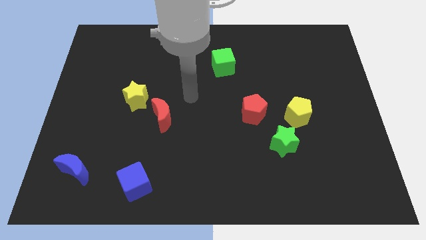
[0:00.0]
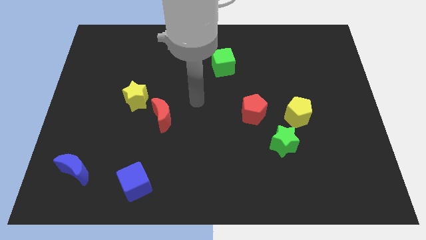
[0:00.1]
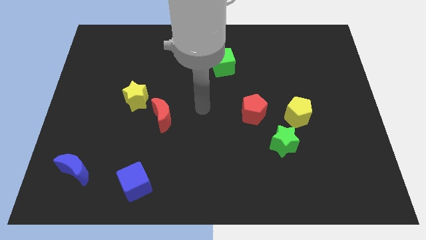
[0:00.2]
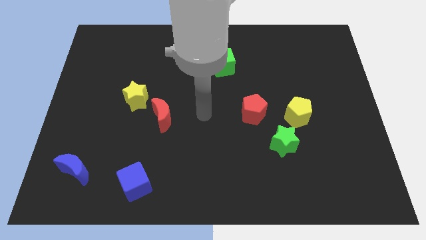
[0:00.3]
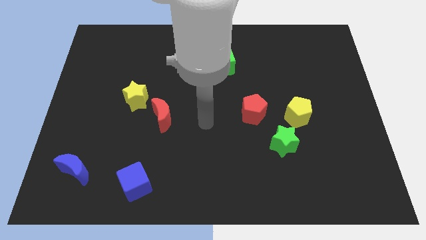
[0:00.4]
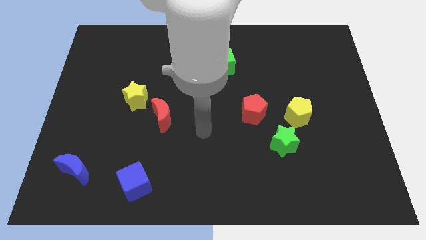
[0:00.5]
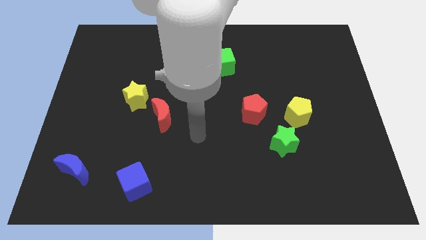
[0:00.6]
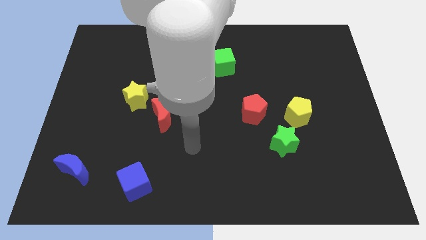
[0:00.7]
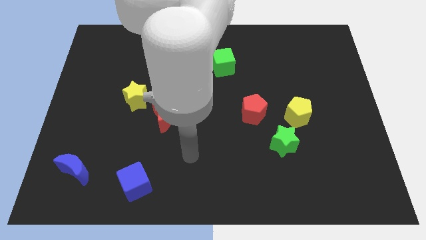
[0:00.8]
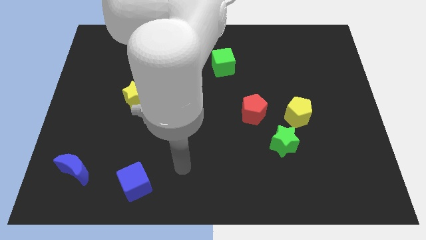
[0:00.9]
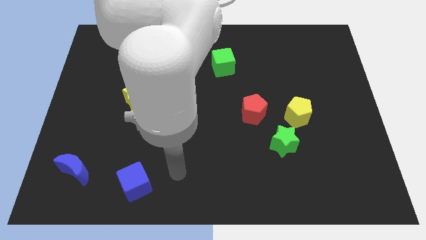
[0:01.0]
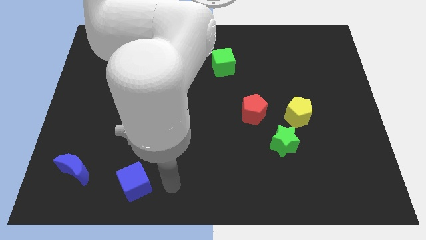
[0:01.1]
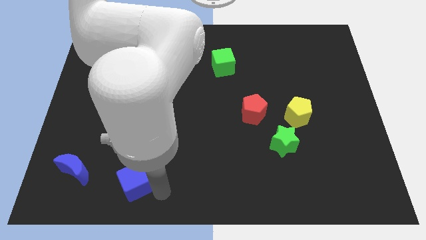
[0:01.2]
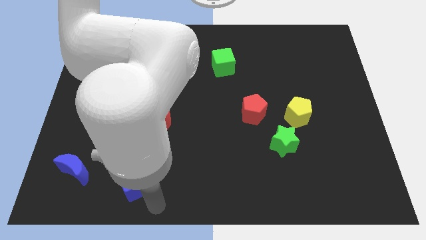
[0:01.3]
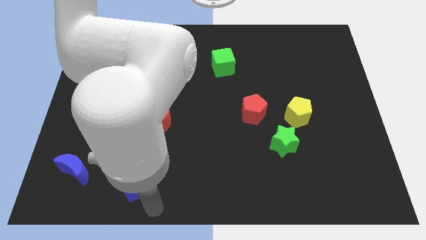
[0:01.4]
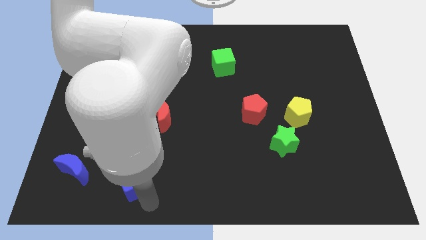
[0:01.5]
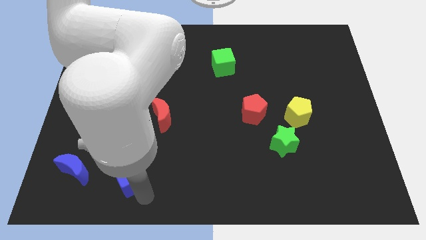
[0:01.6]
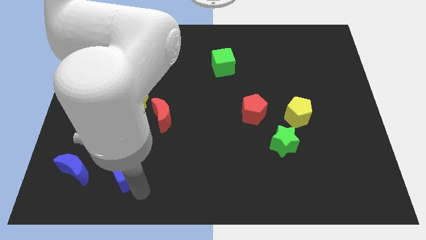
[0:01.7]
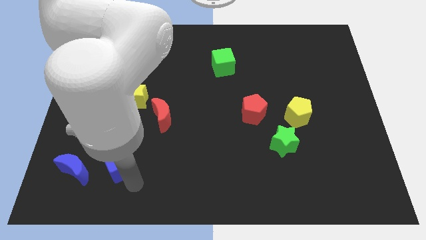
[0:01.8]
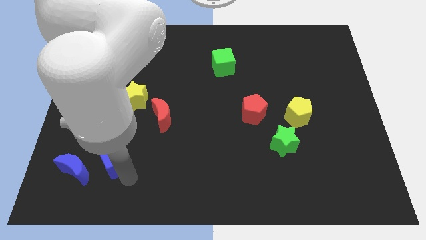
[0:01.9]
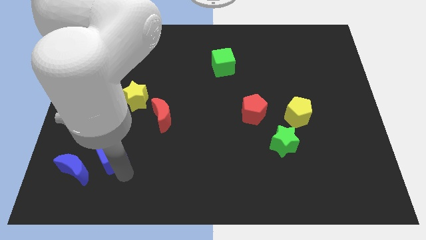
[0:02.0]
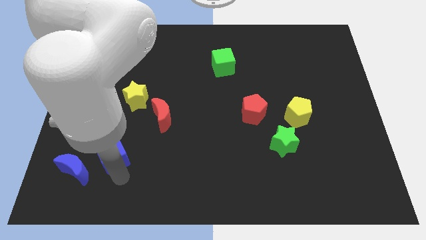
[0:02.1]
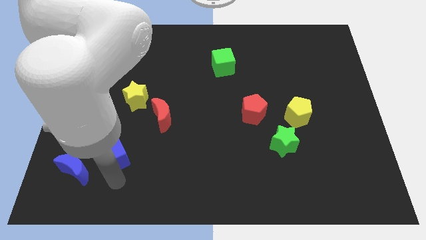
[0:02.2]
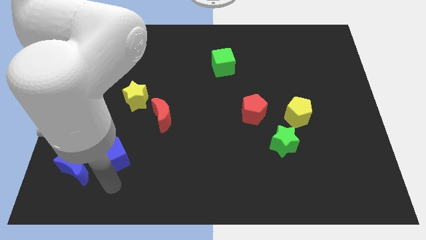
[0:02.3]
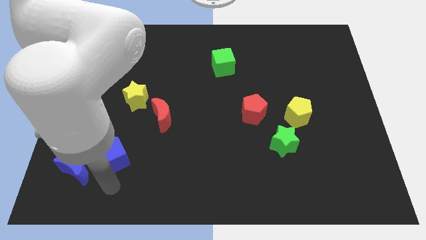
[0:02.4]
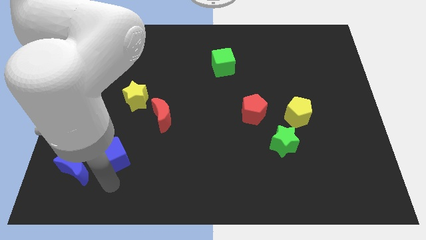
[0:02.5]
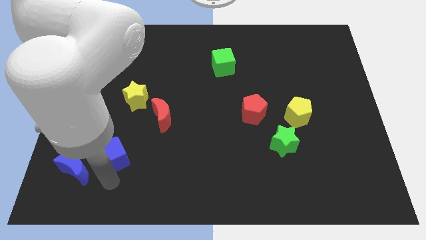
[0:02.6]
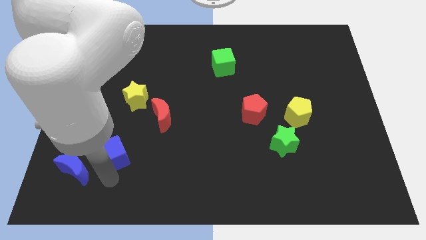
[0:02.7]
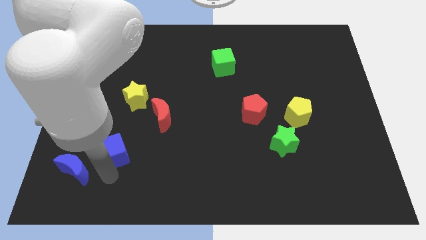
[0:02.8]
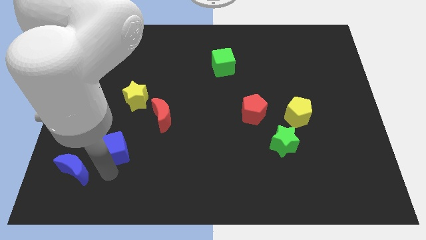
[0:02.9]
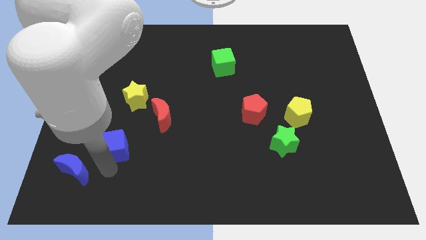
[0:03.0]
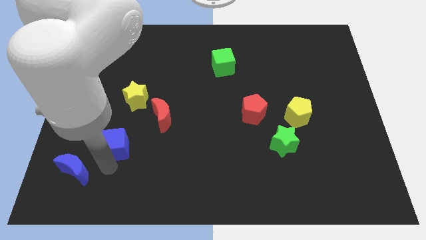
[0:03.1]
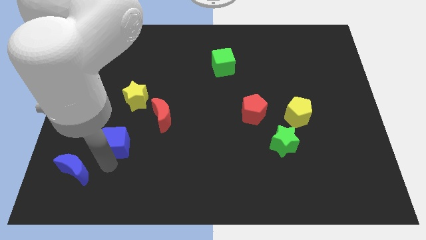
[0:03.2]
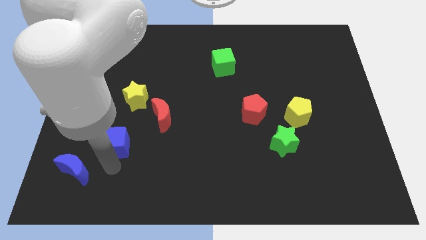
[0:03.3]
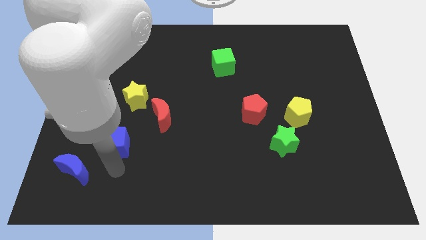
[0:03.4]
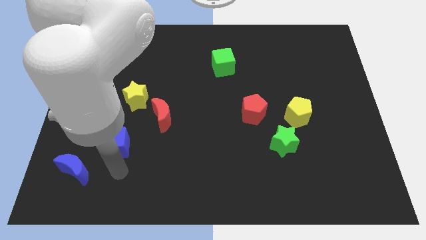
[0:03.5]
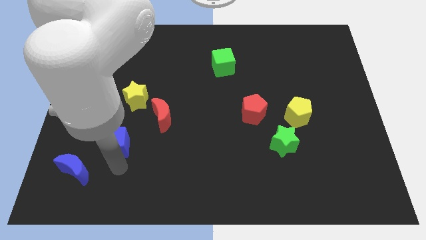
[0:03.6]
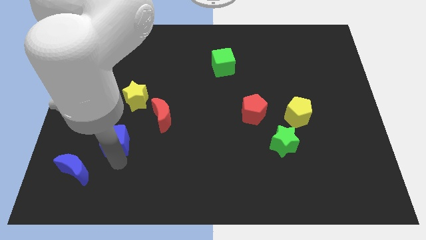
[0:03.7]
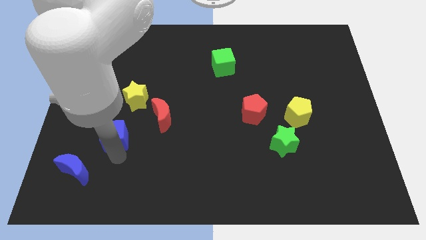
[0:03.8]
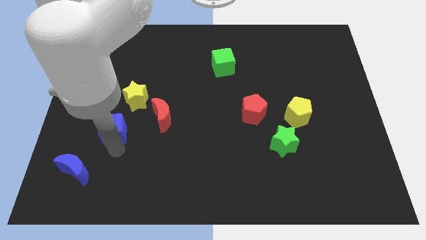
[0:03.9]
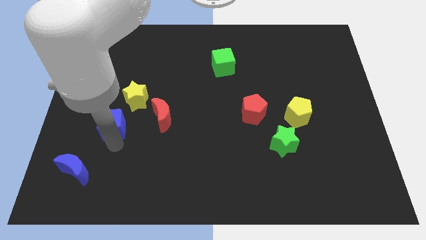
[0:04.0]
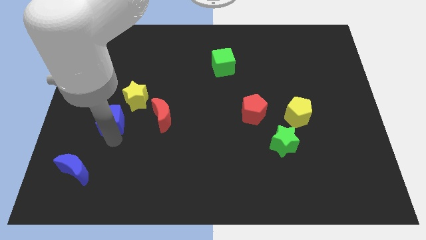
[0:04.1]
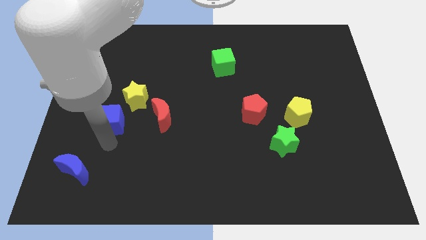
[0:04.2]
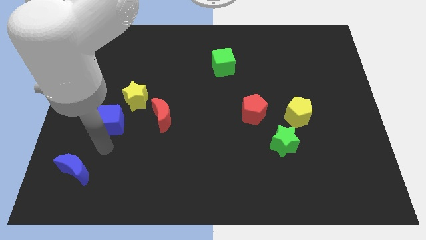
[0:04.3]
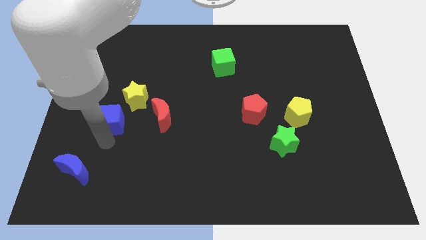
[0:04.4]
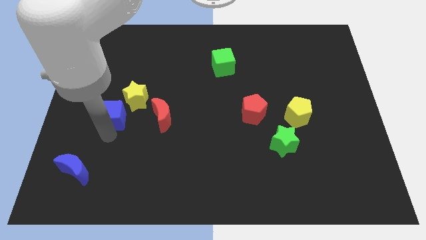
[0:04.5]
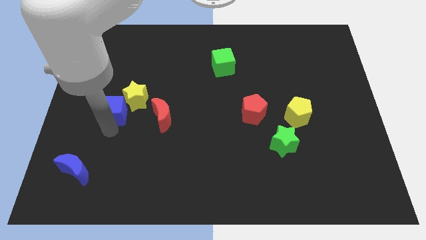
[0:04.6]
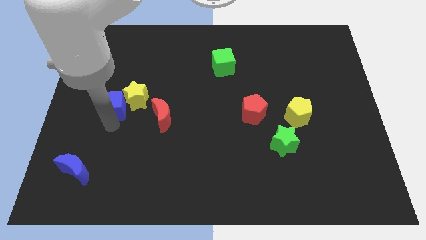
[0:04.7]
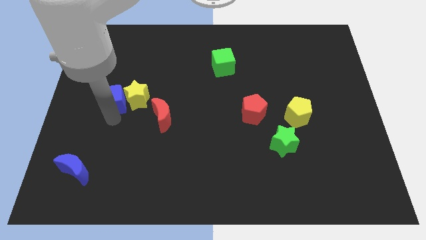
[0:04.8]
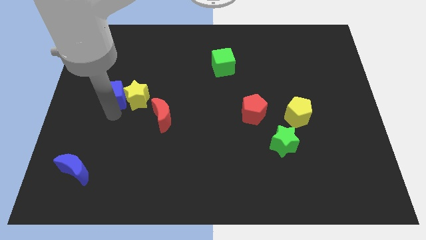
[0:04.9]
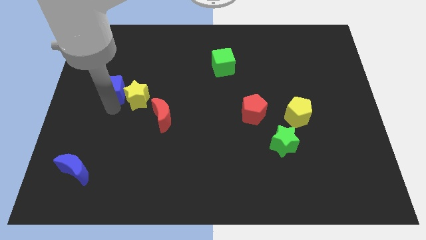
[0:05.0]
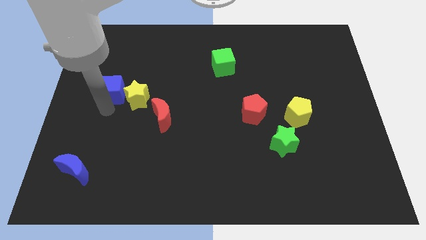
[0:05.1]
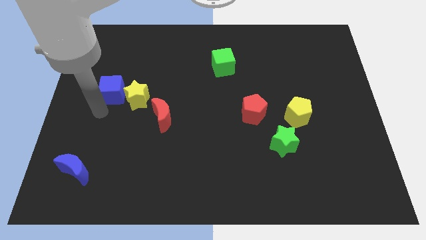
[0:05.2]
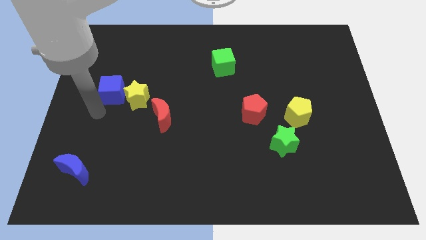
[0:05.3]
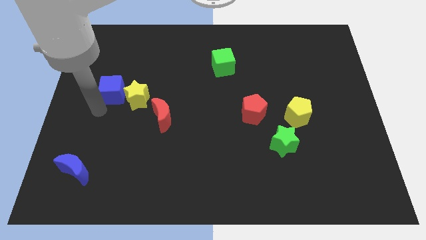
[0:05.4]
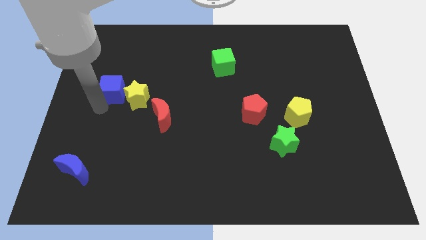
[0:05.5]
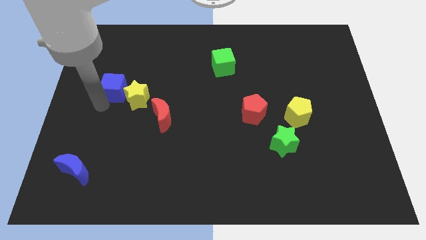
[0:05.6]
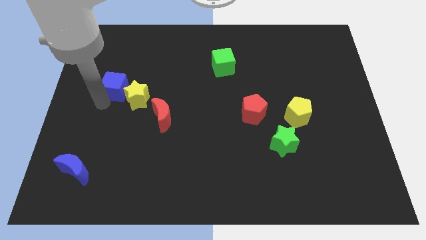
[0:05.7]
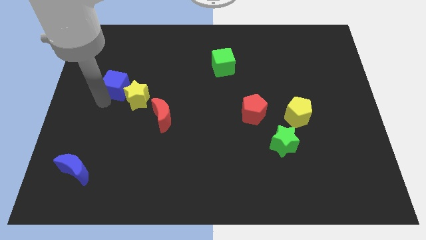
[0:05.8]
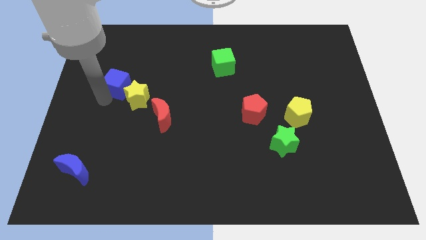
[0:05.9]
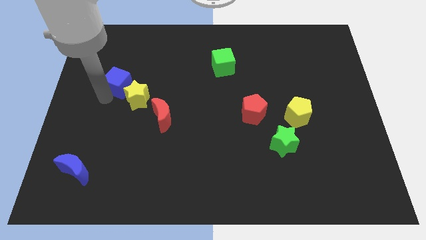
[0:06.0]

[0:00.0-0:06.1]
put the blue cube above the yellow star
